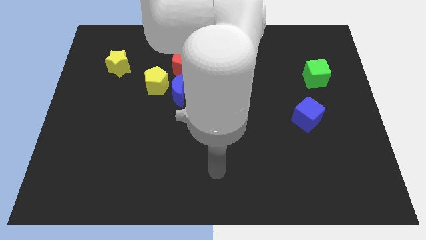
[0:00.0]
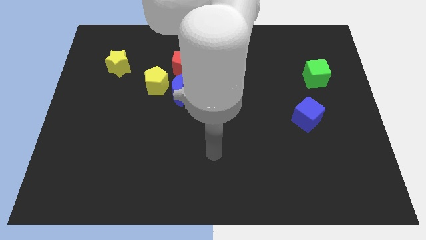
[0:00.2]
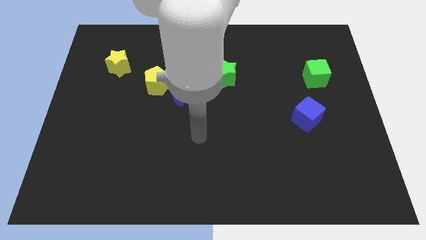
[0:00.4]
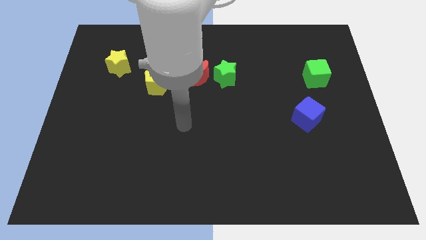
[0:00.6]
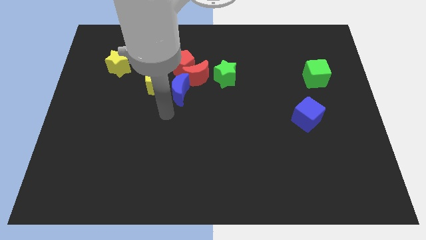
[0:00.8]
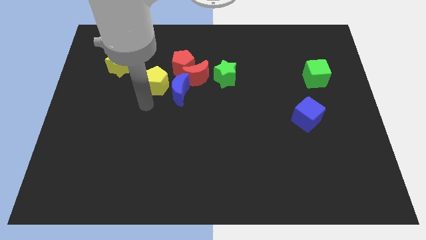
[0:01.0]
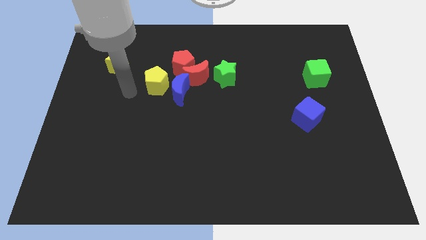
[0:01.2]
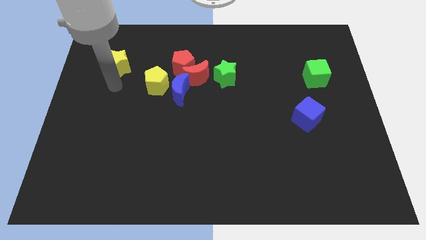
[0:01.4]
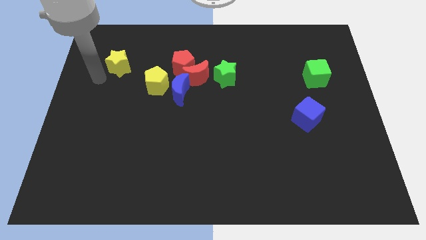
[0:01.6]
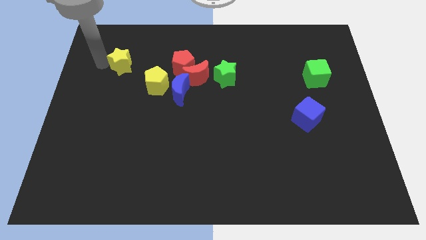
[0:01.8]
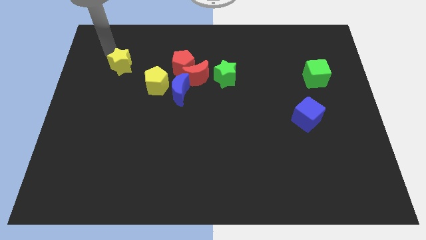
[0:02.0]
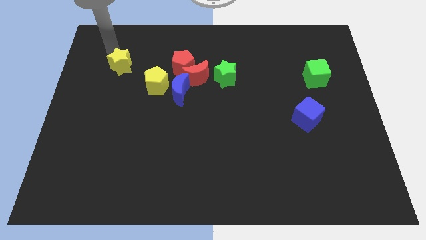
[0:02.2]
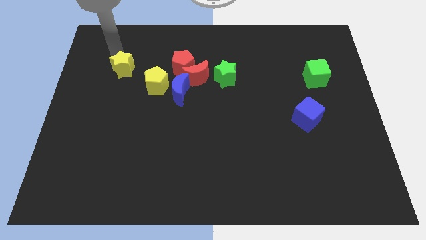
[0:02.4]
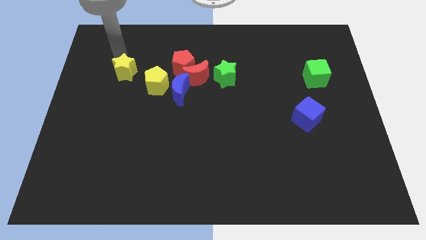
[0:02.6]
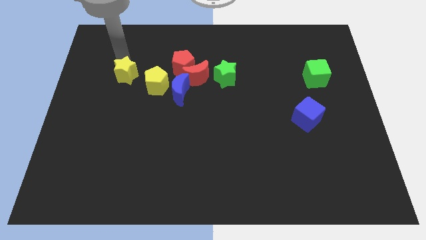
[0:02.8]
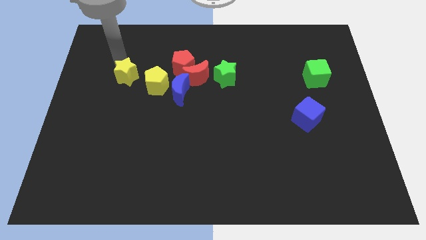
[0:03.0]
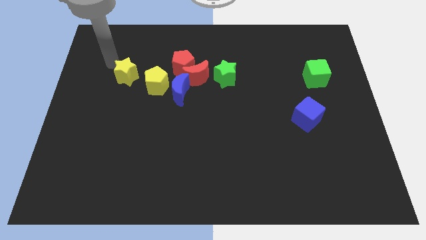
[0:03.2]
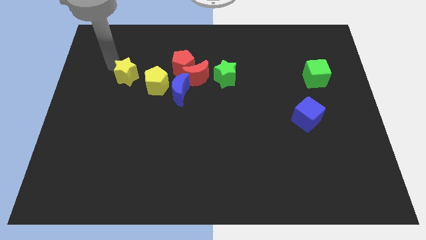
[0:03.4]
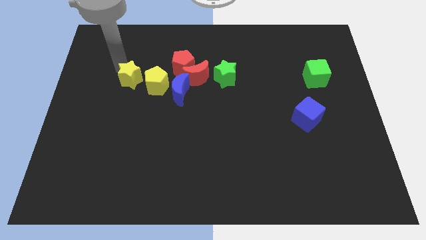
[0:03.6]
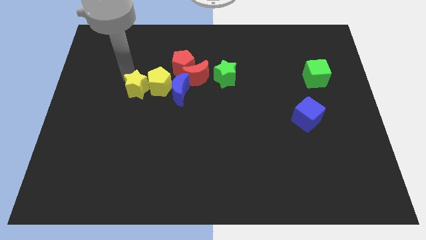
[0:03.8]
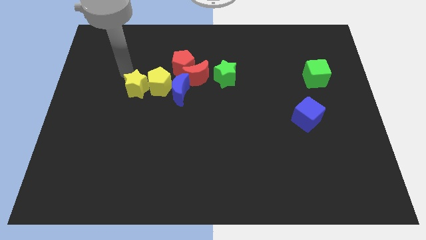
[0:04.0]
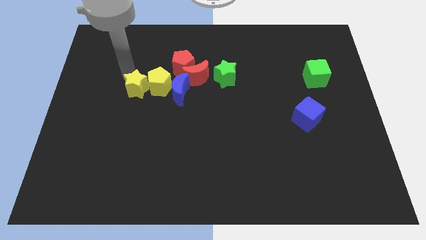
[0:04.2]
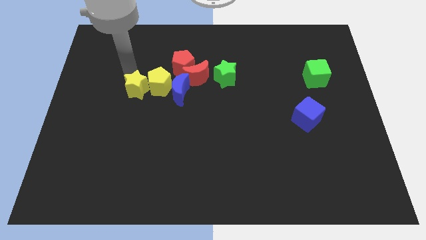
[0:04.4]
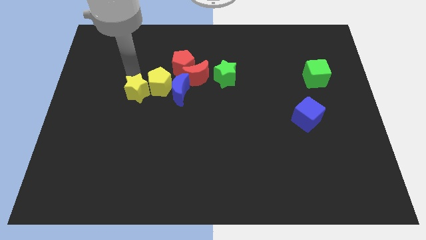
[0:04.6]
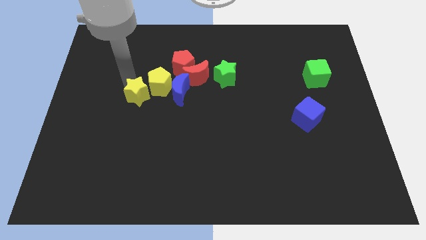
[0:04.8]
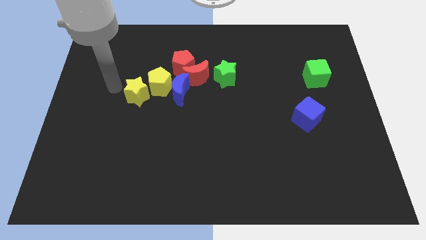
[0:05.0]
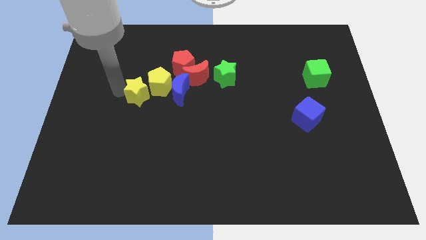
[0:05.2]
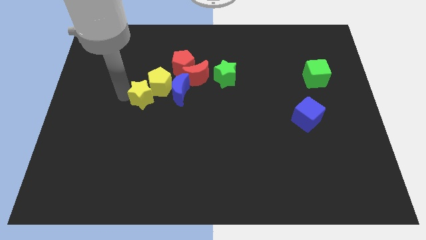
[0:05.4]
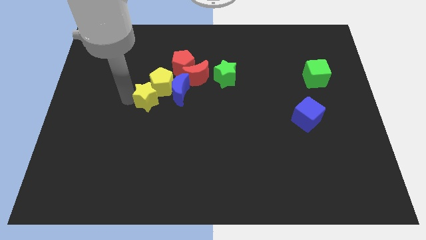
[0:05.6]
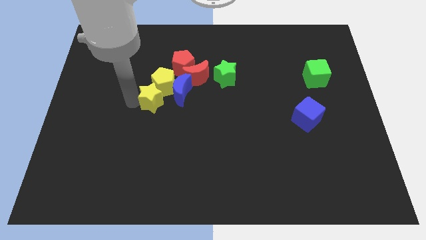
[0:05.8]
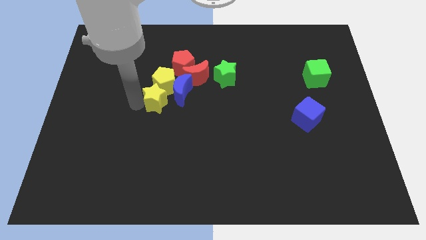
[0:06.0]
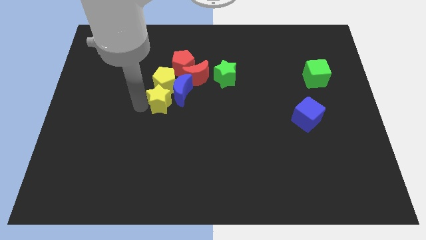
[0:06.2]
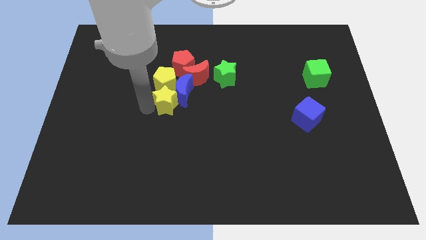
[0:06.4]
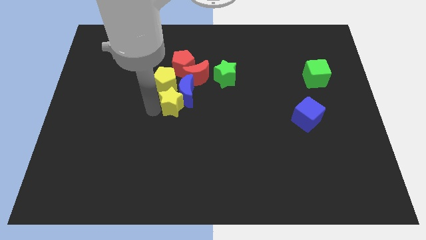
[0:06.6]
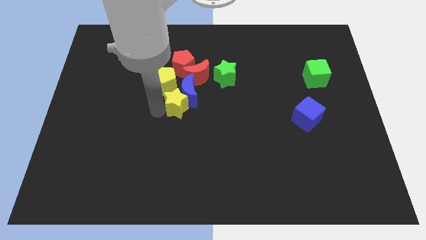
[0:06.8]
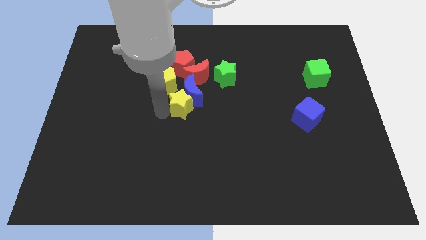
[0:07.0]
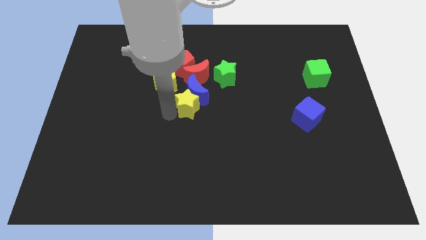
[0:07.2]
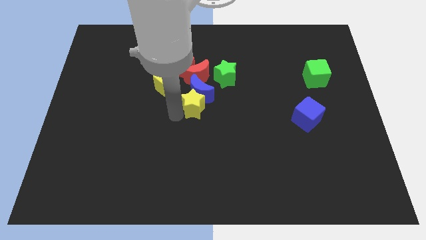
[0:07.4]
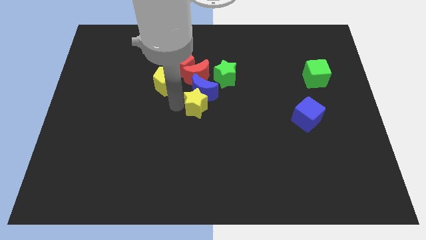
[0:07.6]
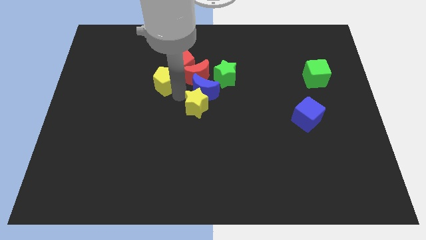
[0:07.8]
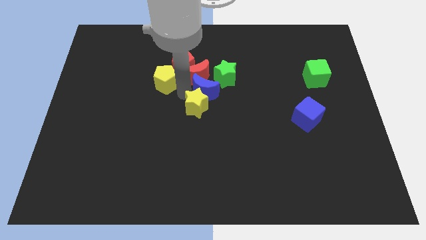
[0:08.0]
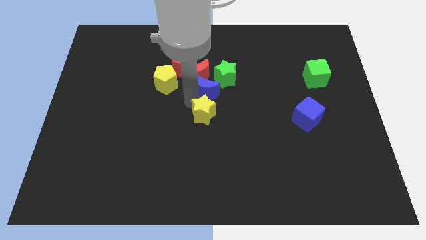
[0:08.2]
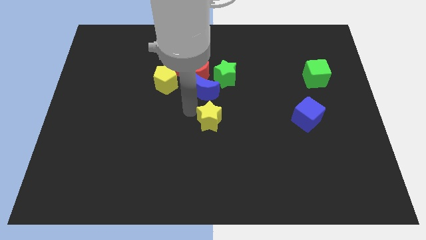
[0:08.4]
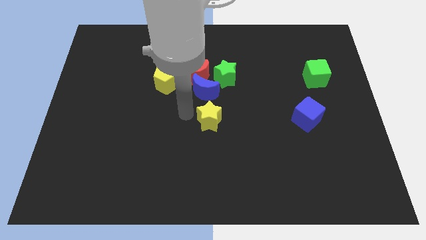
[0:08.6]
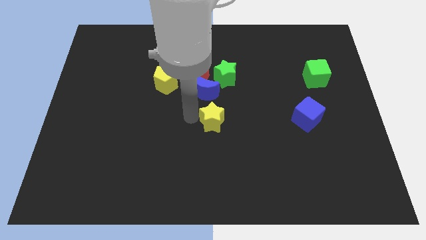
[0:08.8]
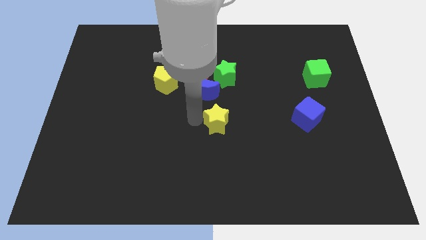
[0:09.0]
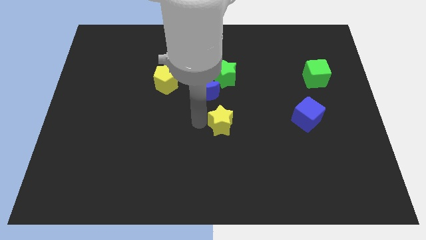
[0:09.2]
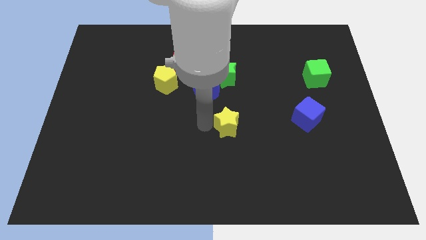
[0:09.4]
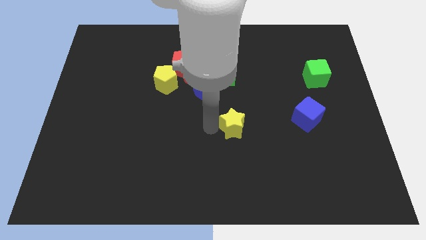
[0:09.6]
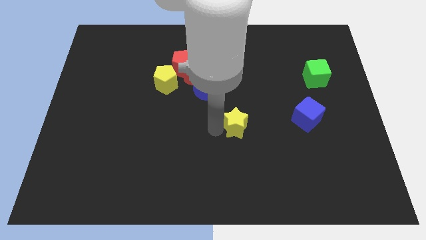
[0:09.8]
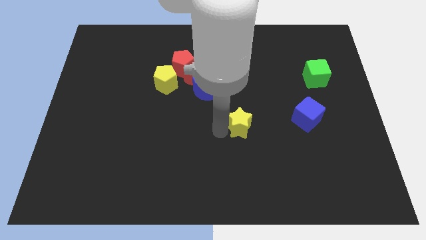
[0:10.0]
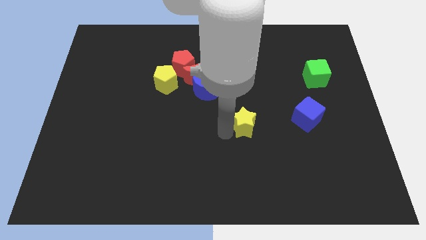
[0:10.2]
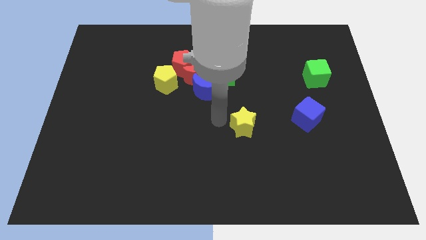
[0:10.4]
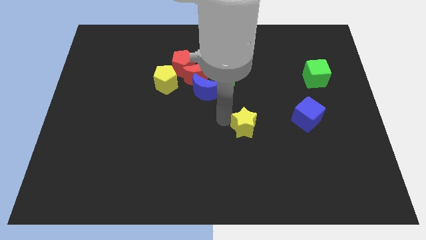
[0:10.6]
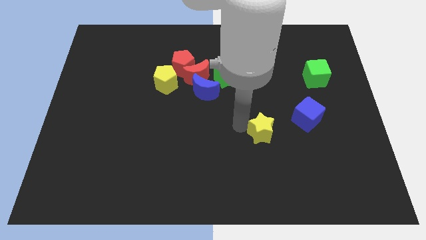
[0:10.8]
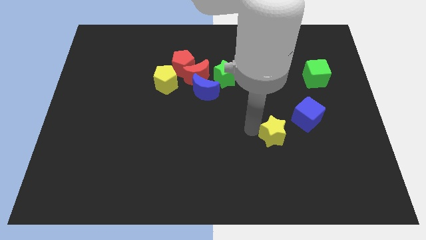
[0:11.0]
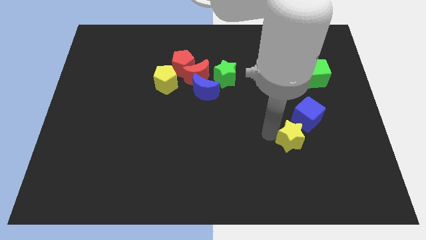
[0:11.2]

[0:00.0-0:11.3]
move the yellow star below the blue cube
